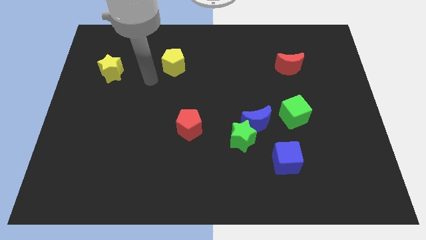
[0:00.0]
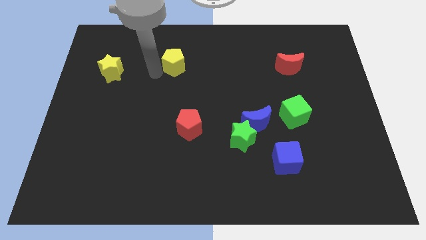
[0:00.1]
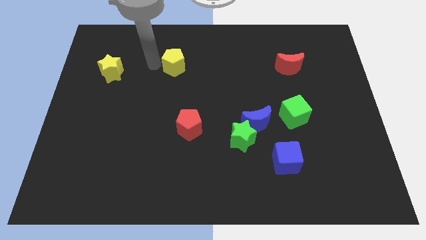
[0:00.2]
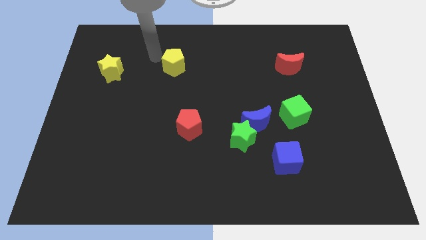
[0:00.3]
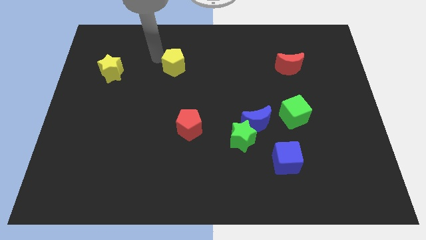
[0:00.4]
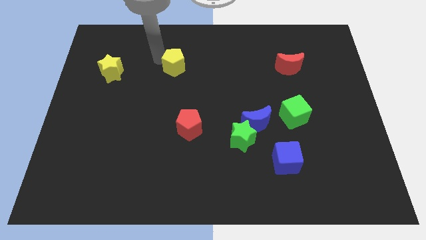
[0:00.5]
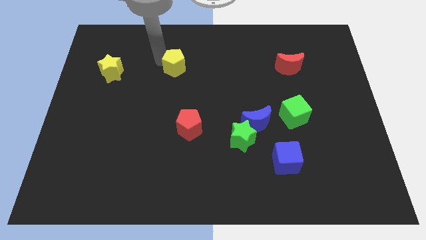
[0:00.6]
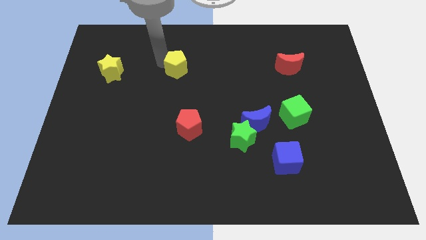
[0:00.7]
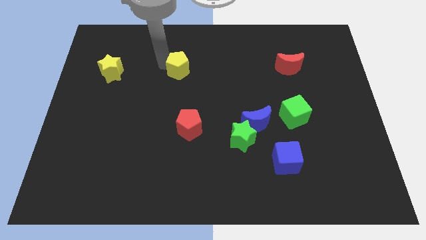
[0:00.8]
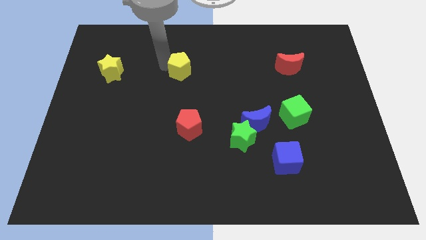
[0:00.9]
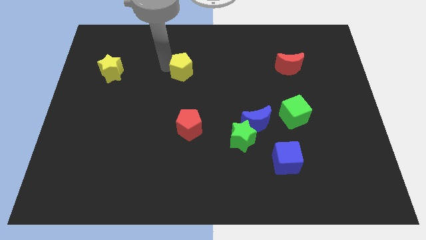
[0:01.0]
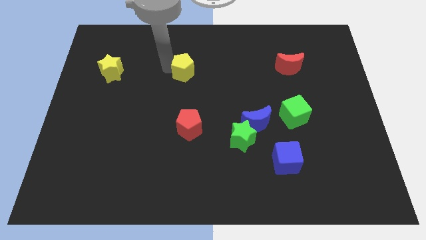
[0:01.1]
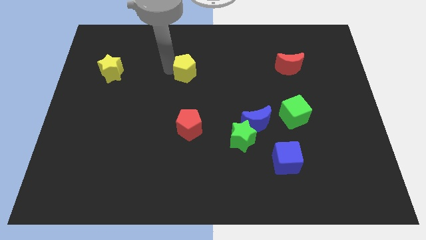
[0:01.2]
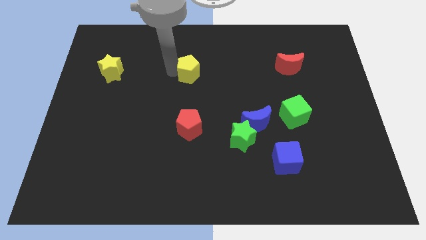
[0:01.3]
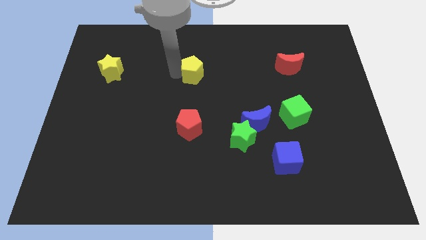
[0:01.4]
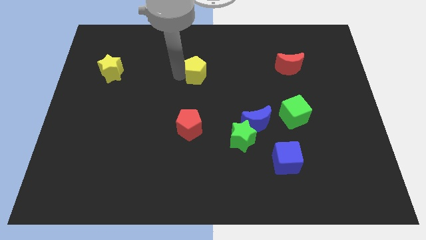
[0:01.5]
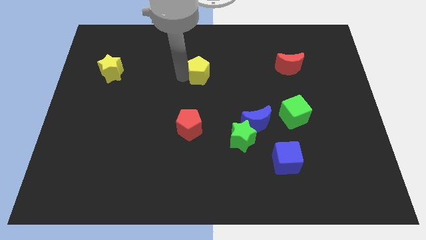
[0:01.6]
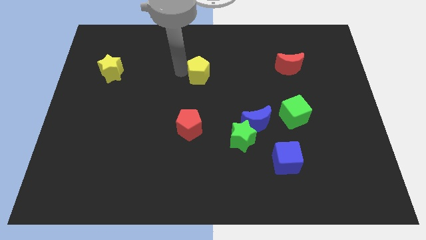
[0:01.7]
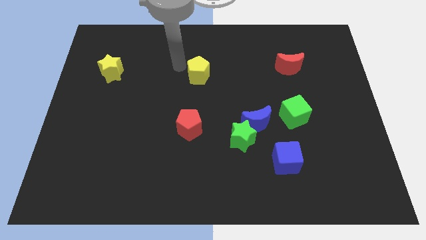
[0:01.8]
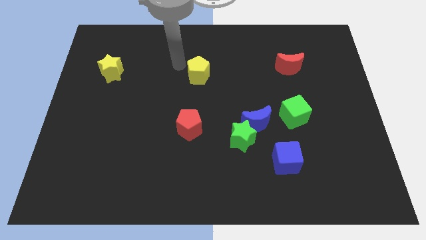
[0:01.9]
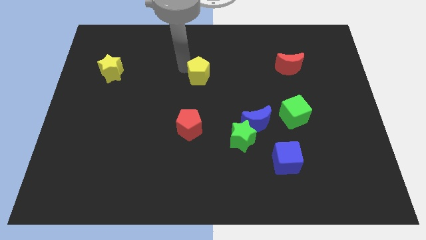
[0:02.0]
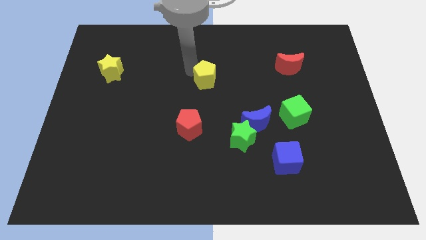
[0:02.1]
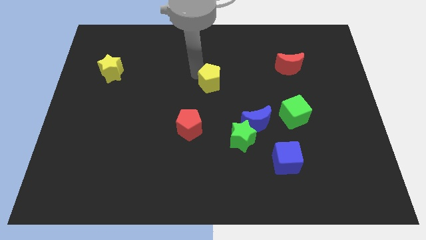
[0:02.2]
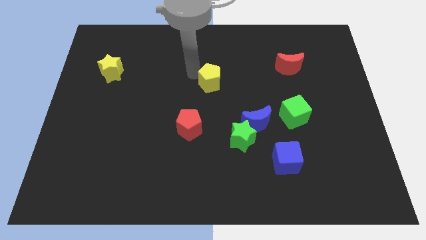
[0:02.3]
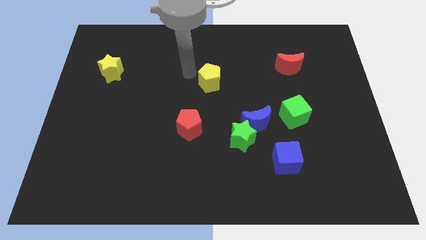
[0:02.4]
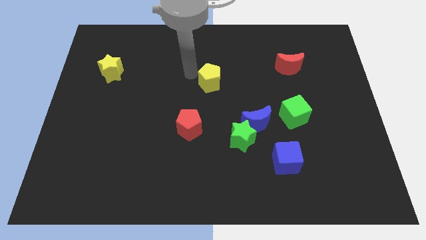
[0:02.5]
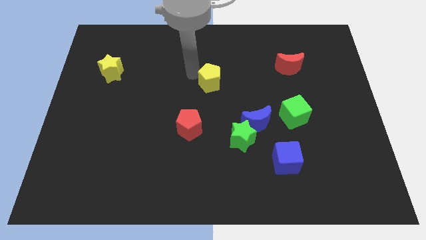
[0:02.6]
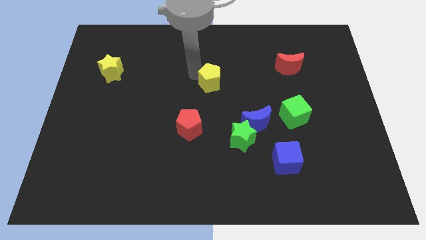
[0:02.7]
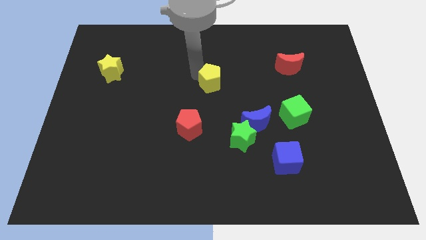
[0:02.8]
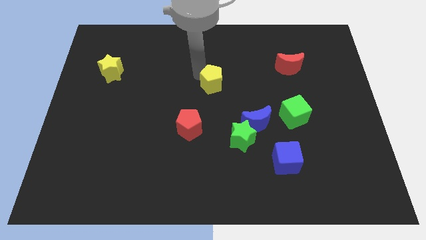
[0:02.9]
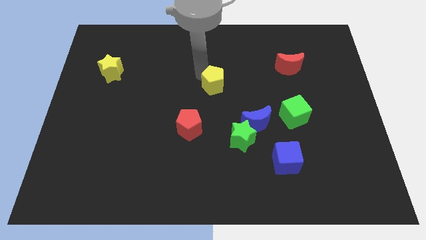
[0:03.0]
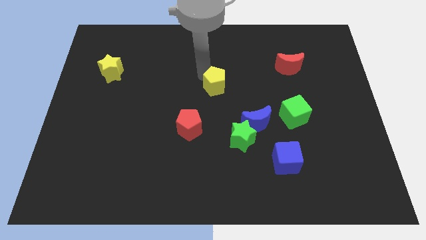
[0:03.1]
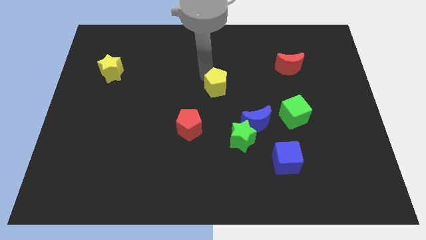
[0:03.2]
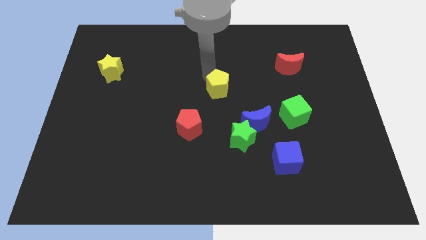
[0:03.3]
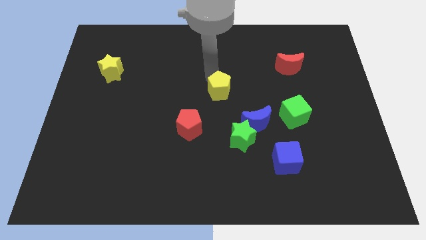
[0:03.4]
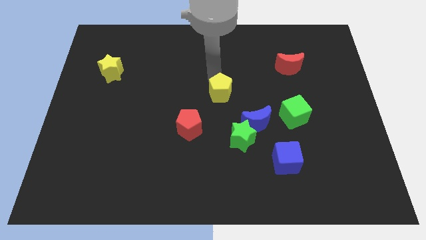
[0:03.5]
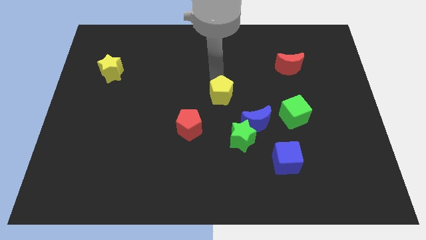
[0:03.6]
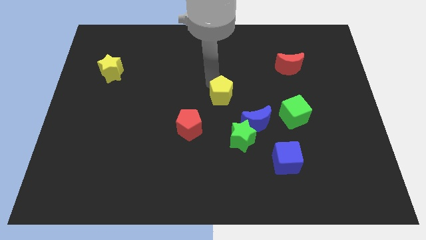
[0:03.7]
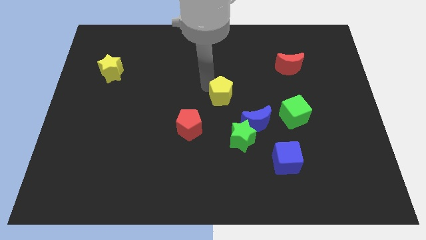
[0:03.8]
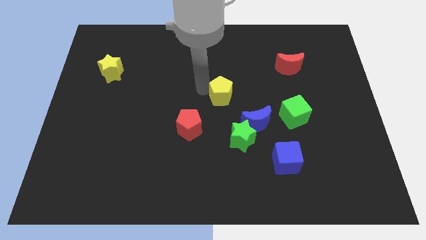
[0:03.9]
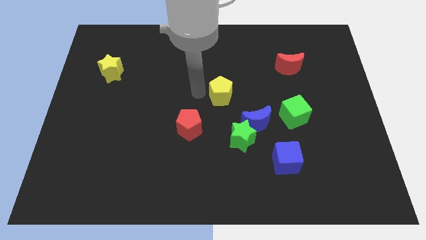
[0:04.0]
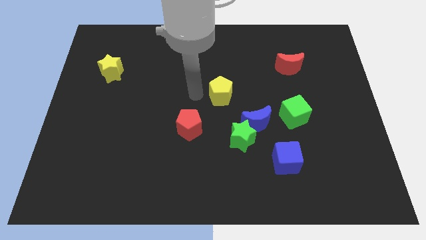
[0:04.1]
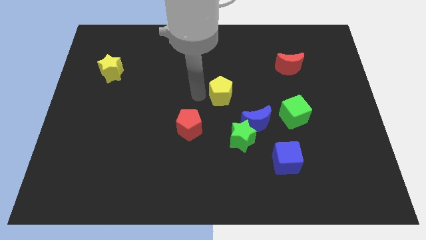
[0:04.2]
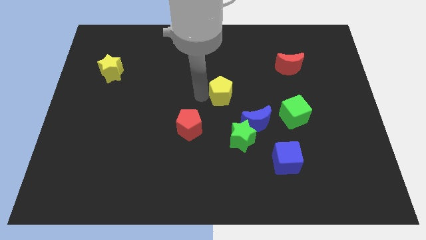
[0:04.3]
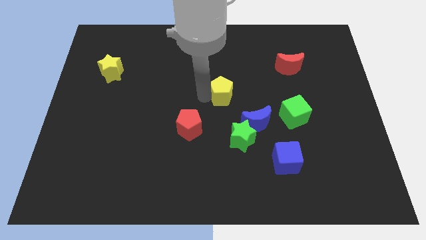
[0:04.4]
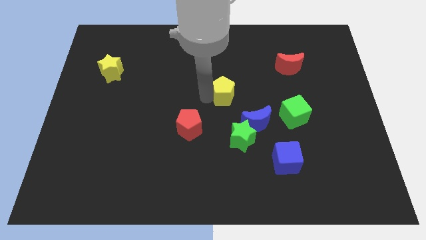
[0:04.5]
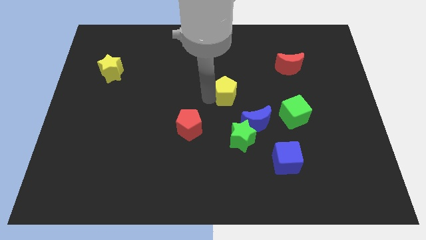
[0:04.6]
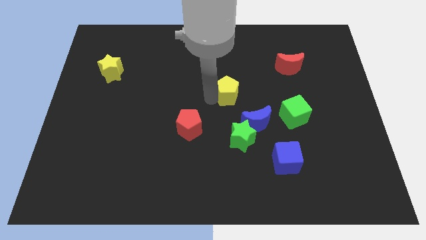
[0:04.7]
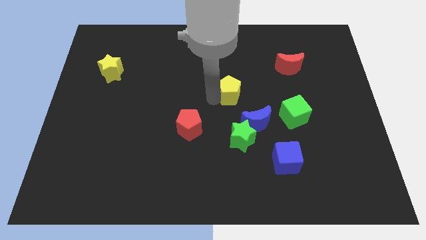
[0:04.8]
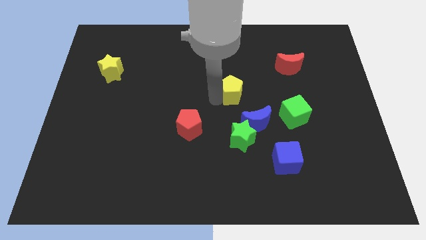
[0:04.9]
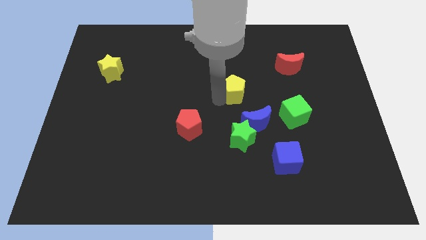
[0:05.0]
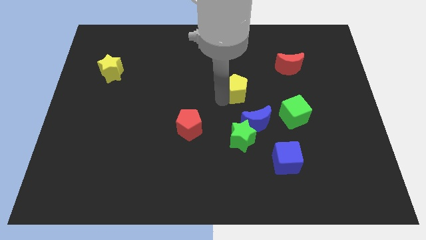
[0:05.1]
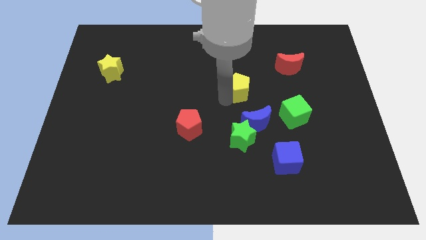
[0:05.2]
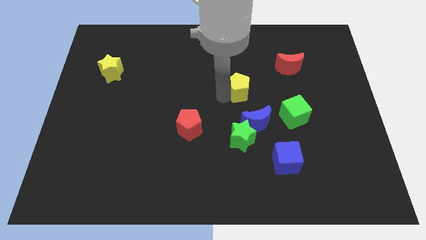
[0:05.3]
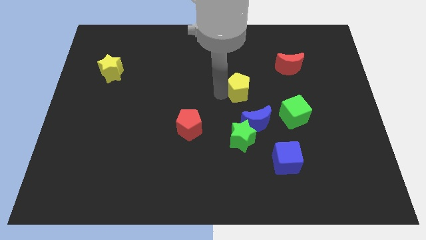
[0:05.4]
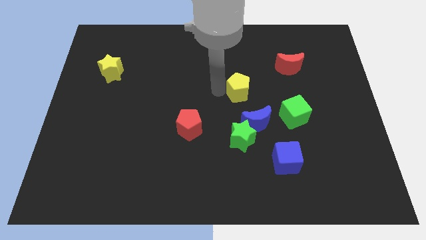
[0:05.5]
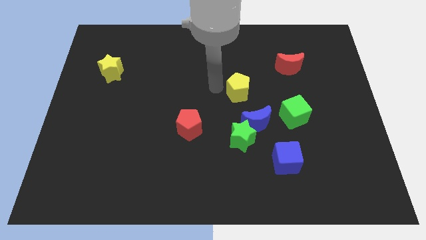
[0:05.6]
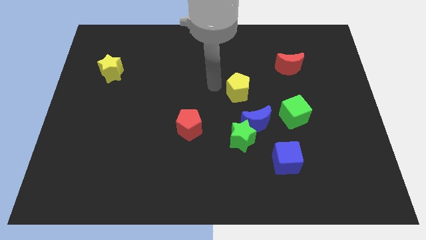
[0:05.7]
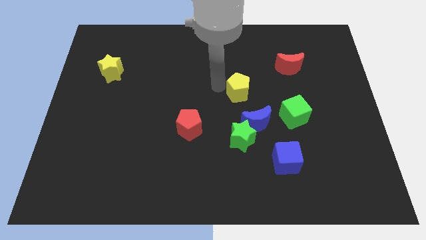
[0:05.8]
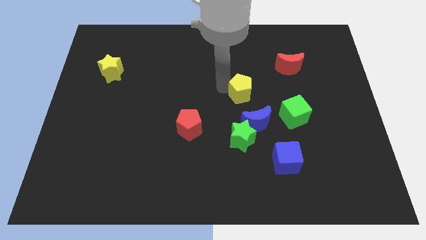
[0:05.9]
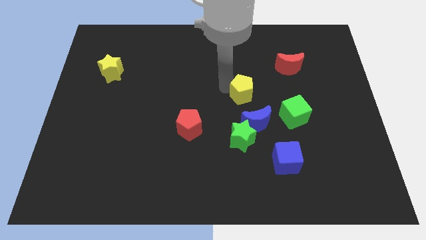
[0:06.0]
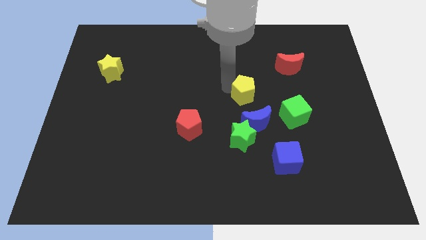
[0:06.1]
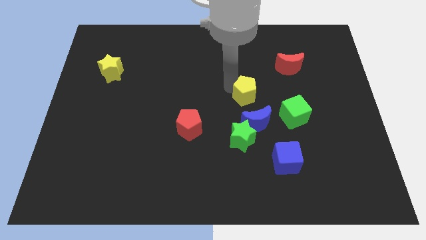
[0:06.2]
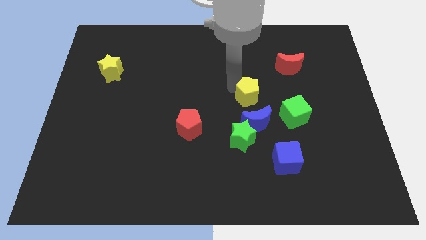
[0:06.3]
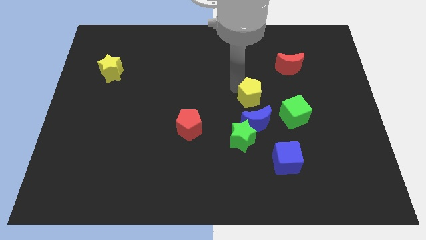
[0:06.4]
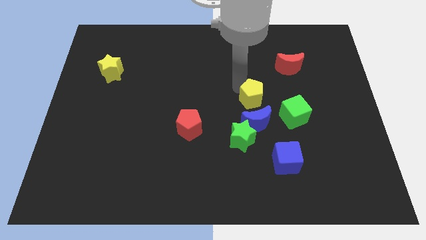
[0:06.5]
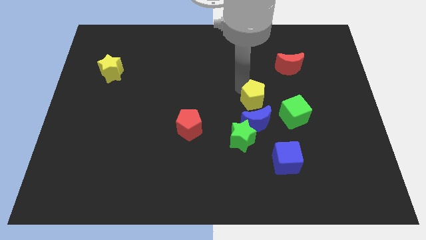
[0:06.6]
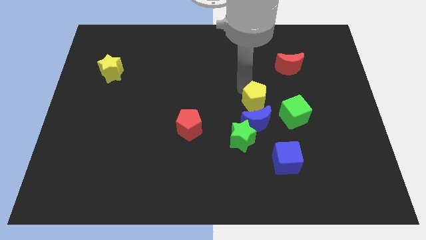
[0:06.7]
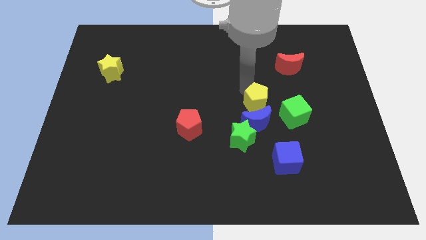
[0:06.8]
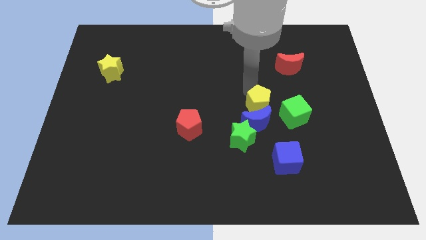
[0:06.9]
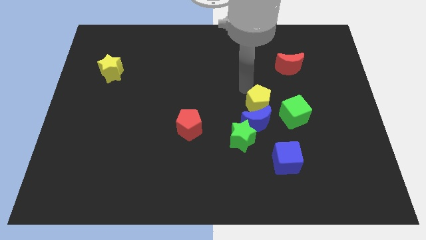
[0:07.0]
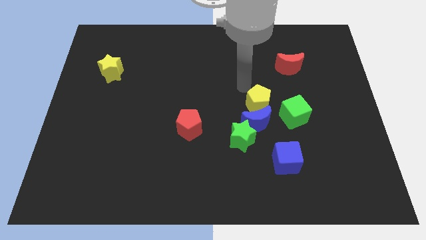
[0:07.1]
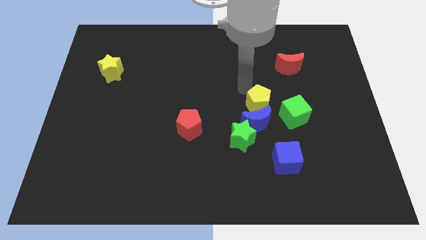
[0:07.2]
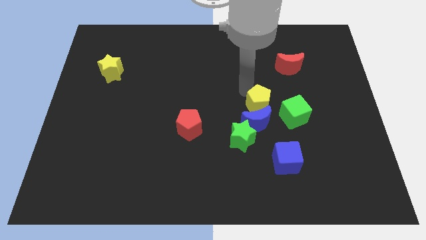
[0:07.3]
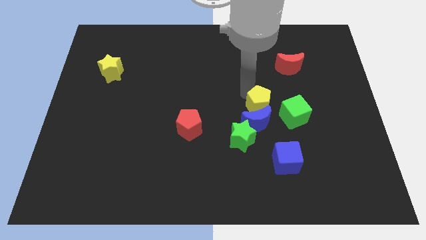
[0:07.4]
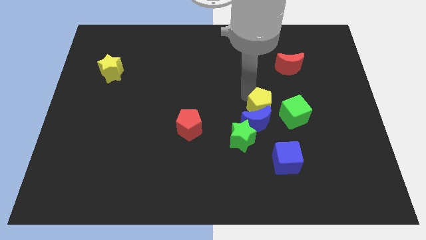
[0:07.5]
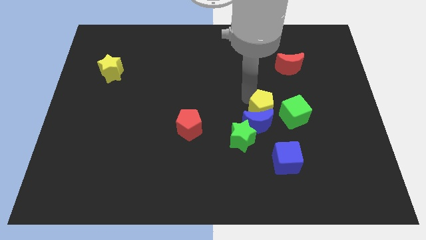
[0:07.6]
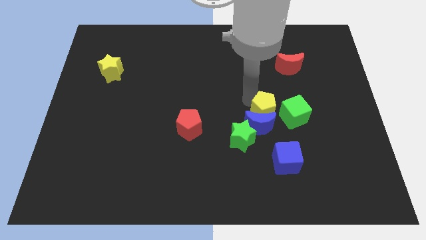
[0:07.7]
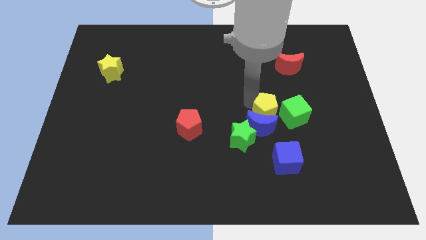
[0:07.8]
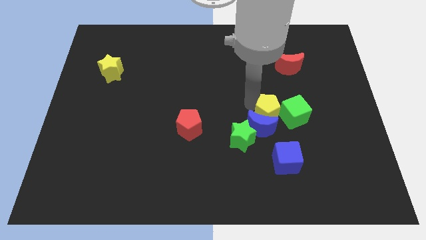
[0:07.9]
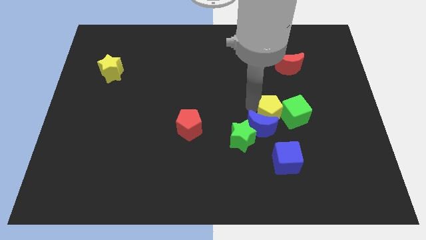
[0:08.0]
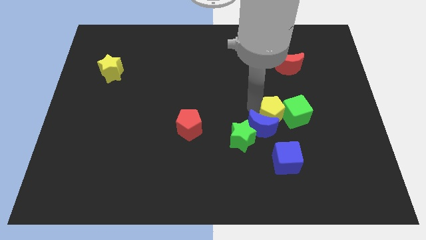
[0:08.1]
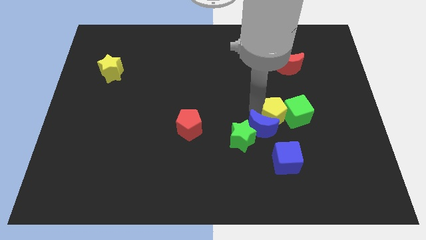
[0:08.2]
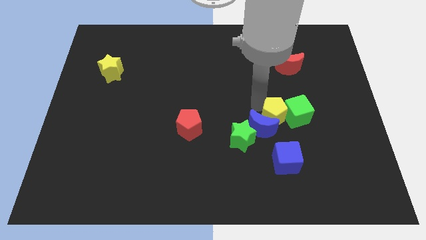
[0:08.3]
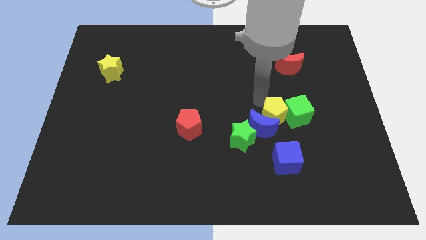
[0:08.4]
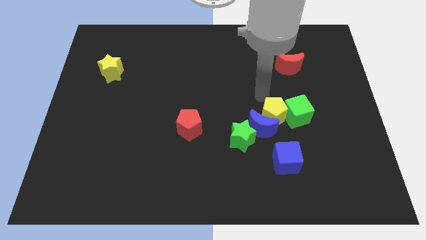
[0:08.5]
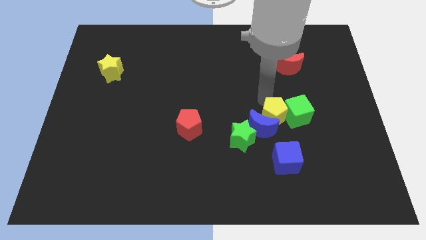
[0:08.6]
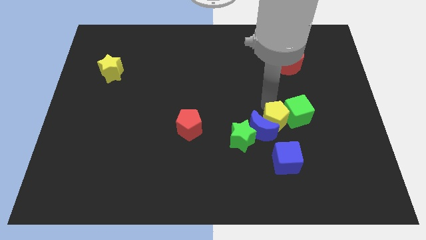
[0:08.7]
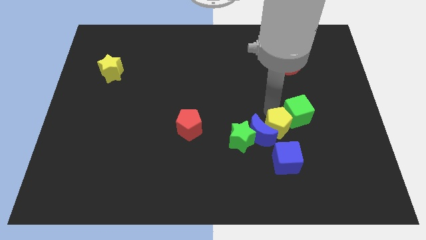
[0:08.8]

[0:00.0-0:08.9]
push the yellow pentagon right of the green star
